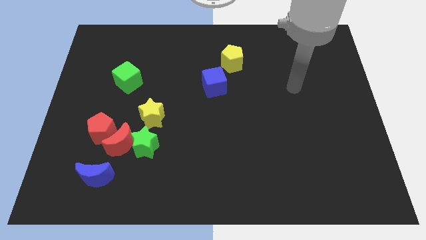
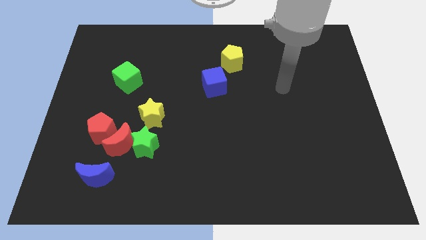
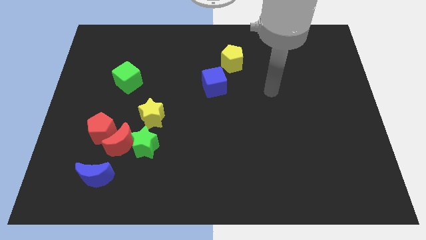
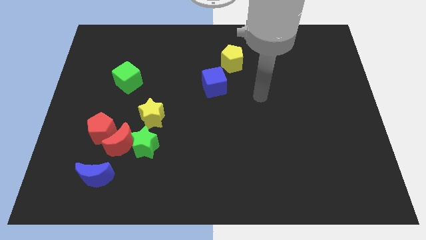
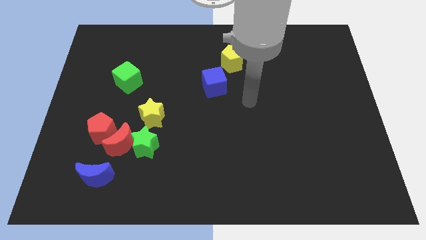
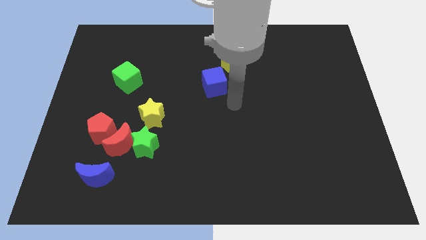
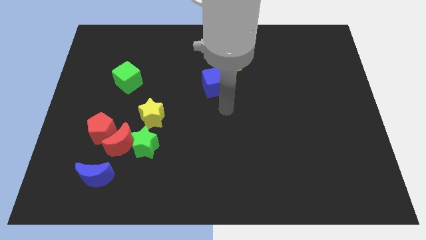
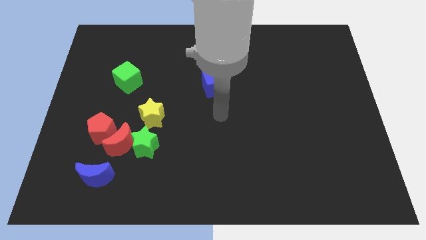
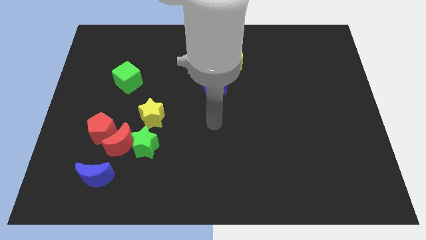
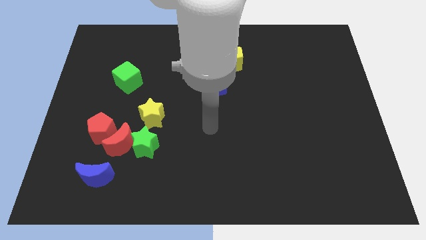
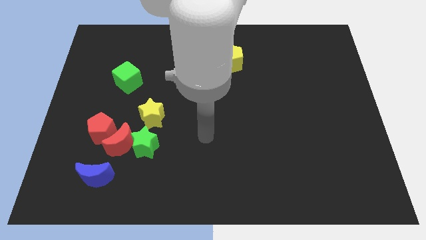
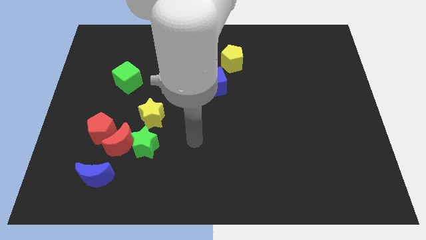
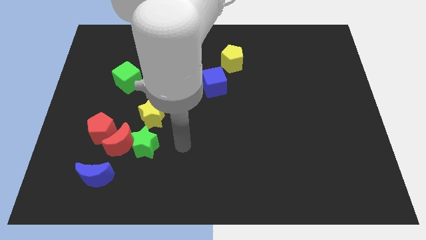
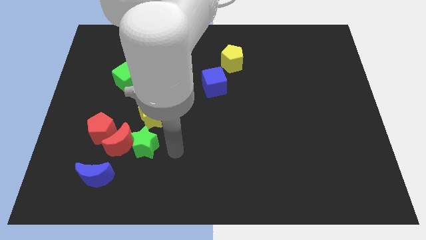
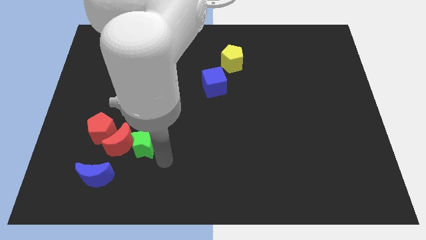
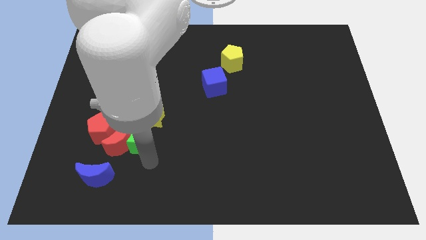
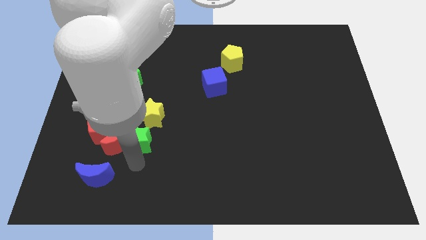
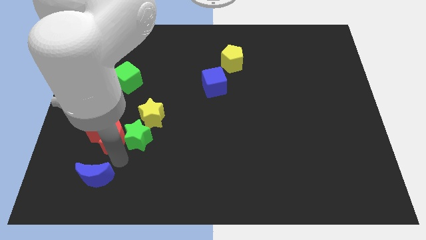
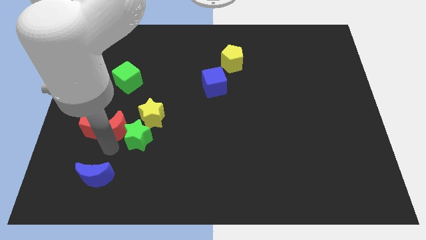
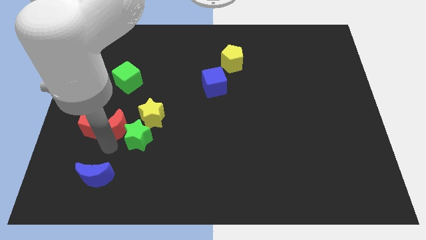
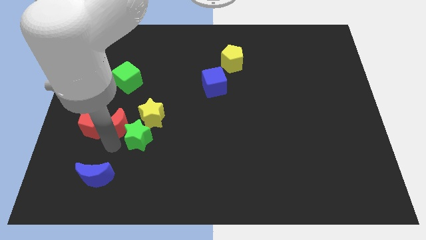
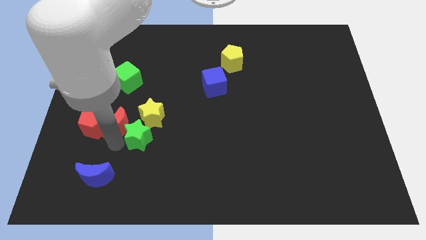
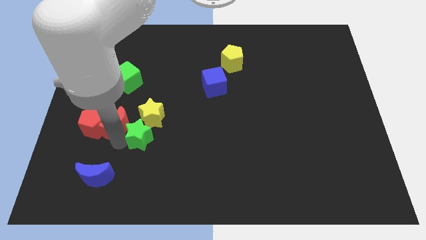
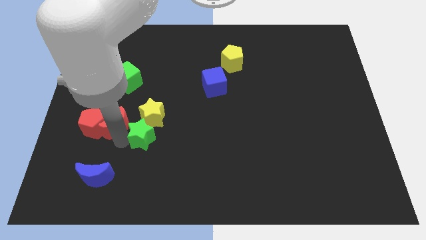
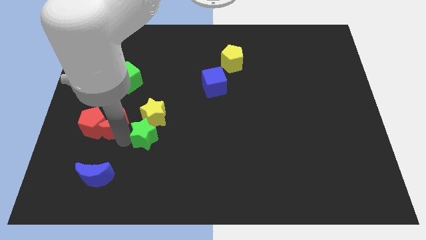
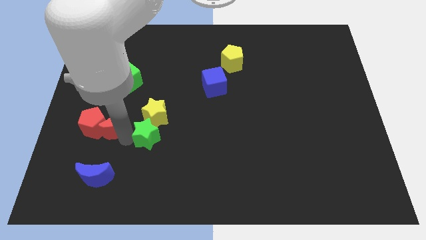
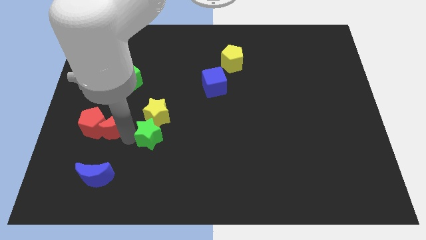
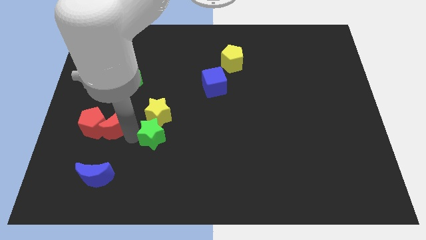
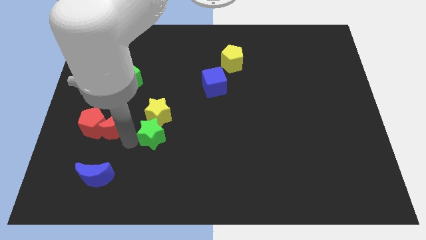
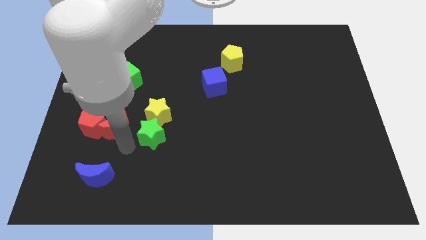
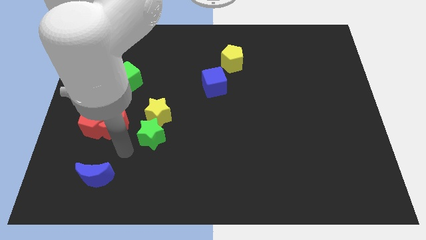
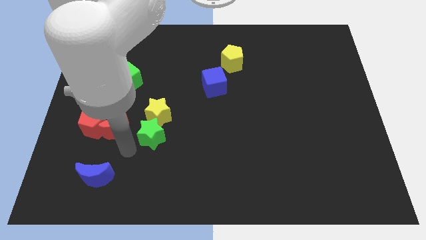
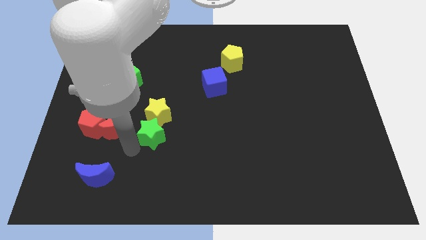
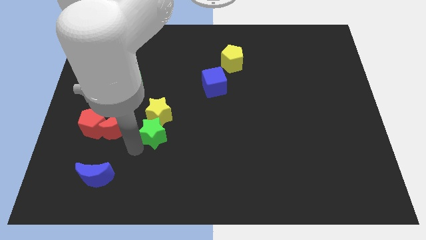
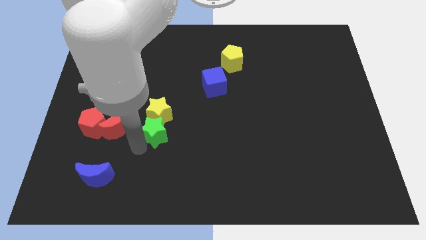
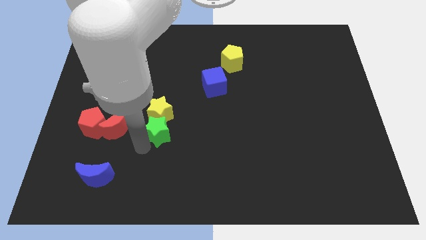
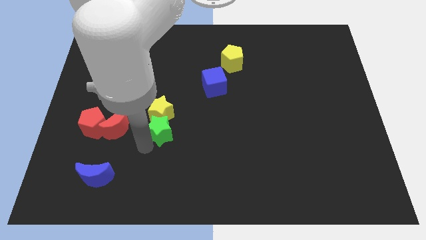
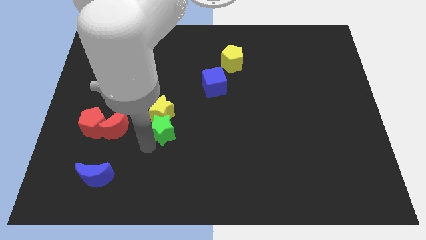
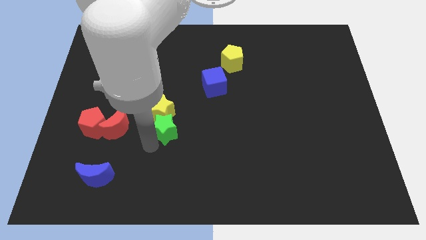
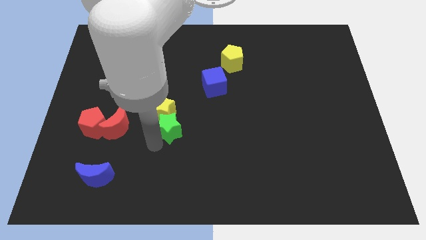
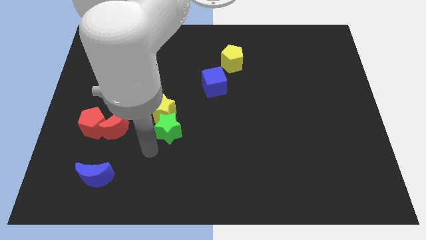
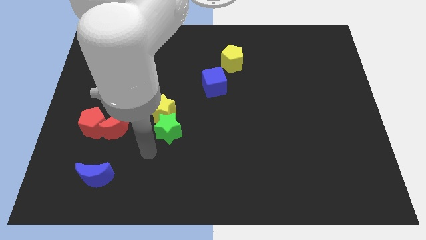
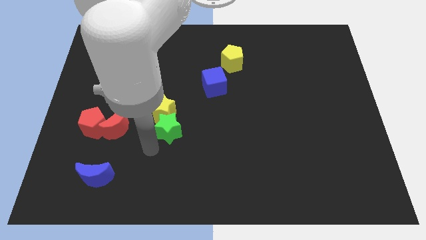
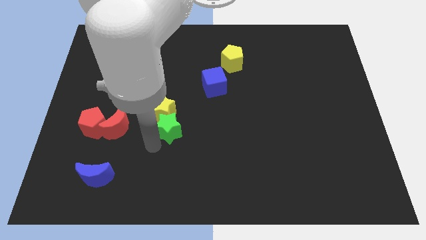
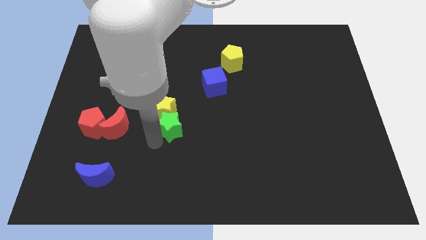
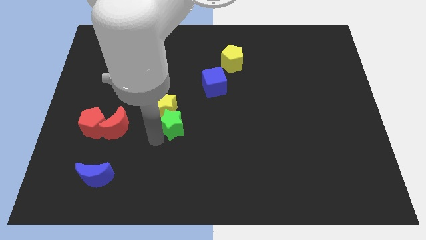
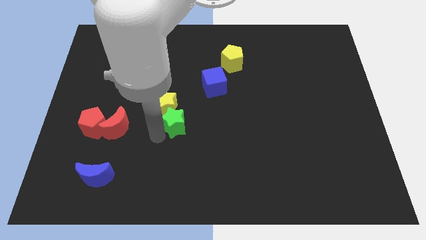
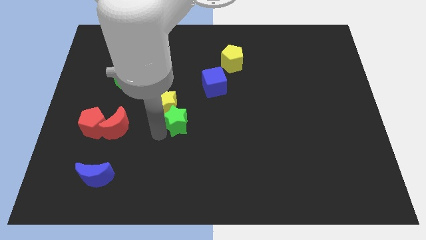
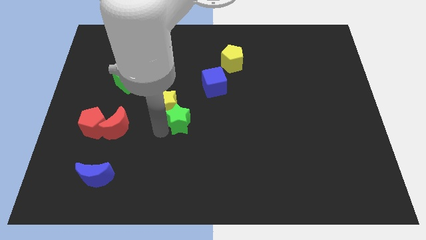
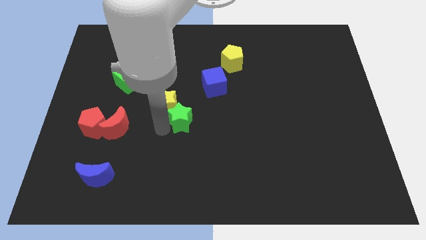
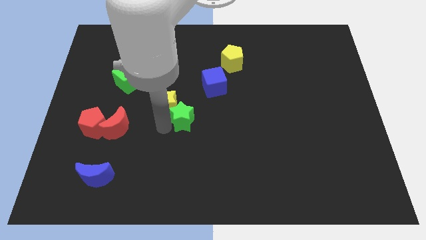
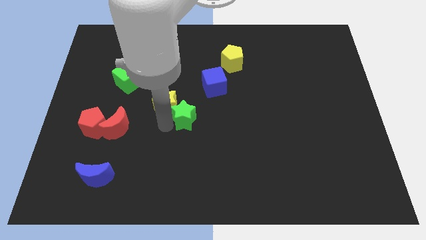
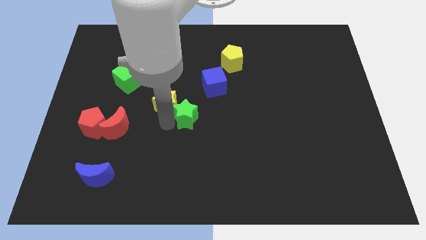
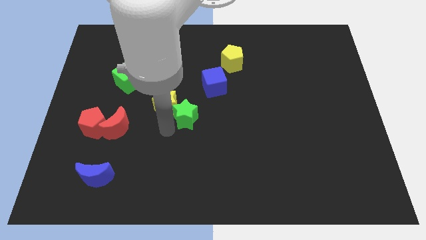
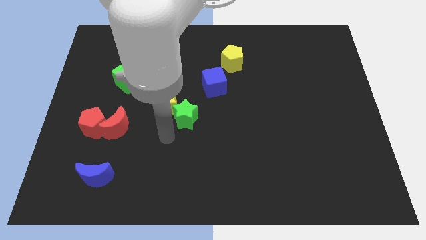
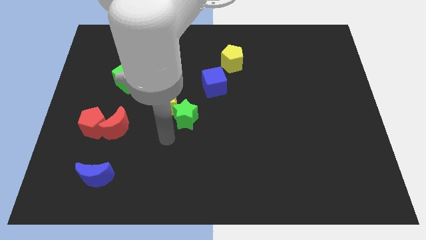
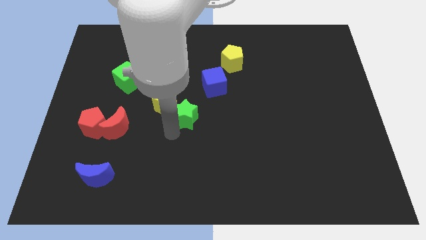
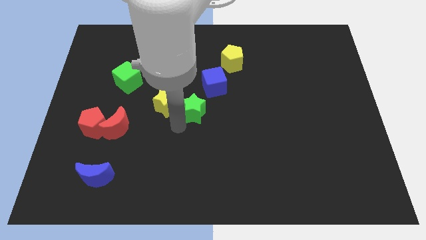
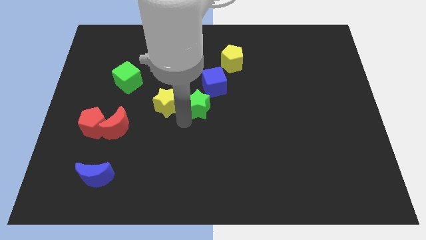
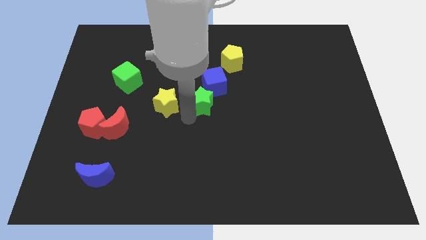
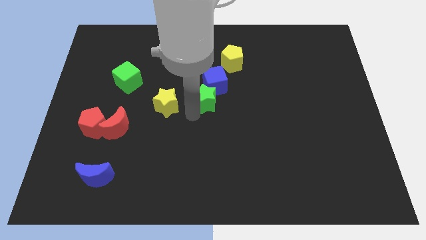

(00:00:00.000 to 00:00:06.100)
slide the green star towards the blue cube

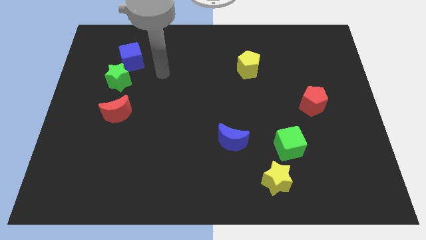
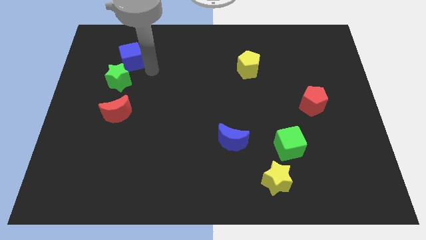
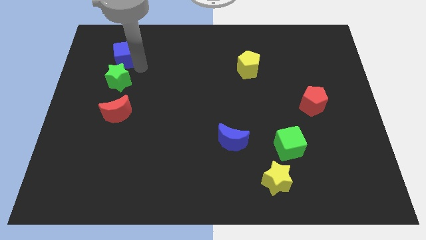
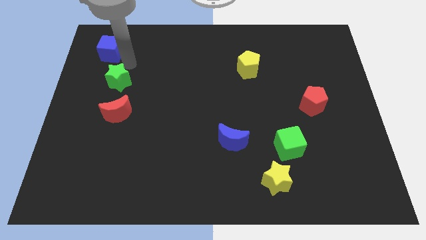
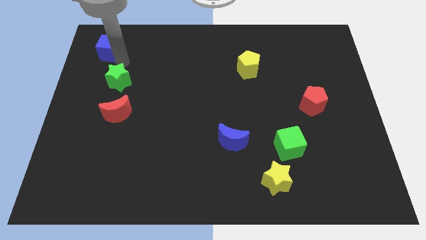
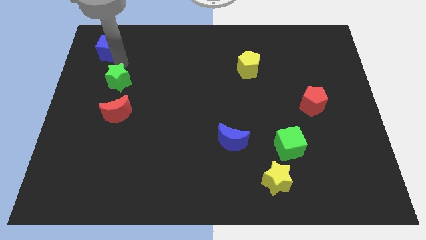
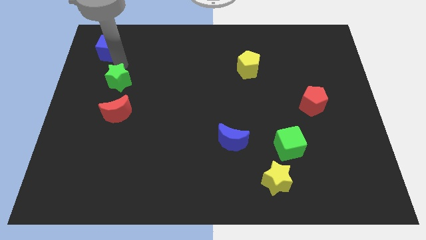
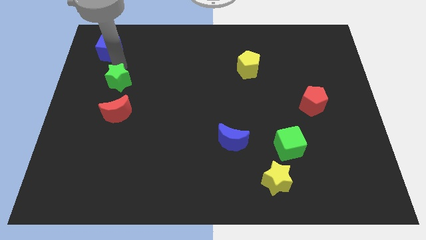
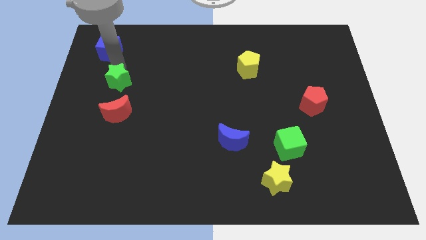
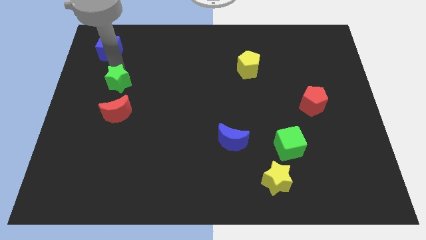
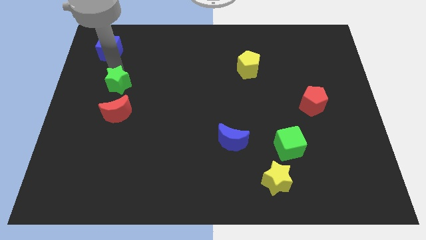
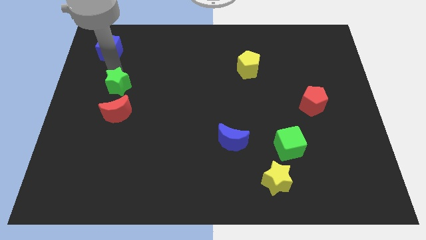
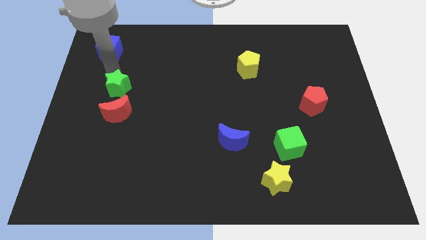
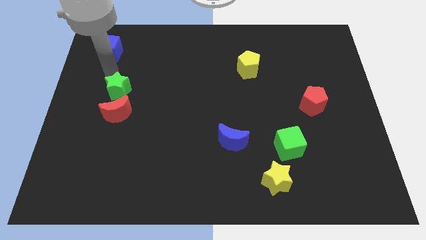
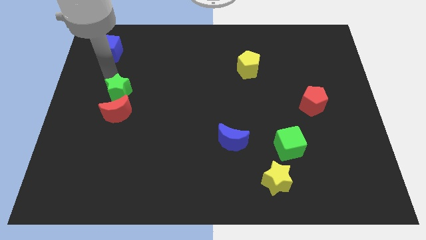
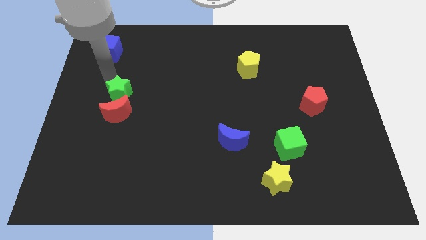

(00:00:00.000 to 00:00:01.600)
push the green star next to the red moon
